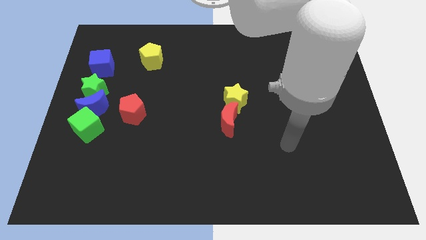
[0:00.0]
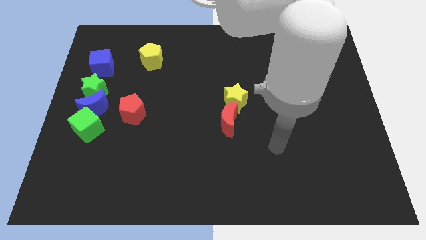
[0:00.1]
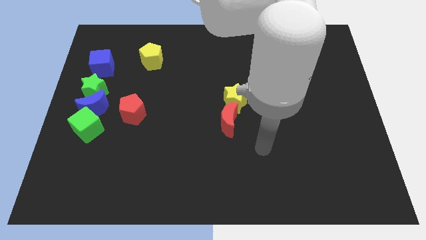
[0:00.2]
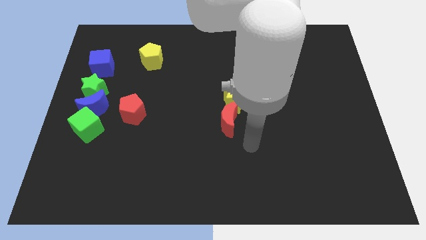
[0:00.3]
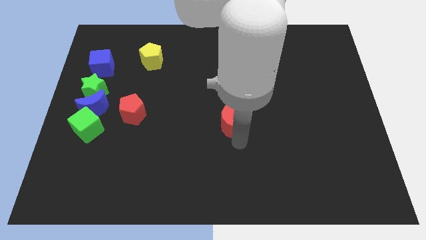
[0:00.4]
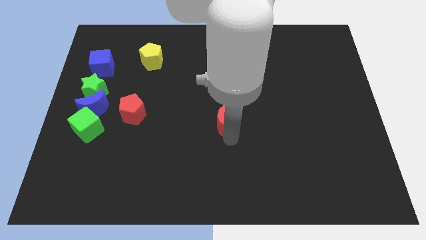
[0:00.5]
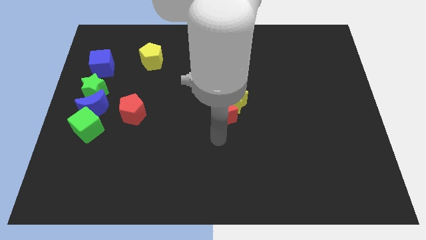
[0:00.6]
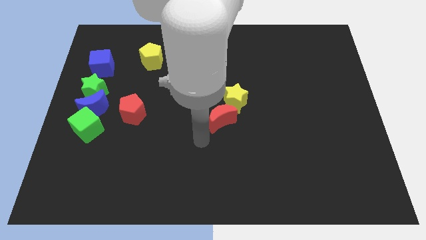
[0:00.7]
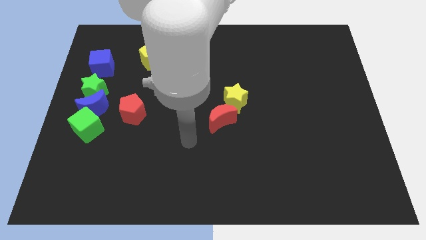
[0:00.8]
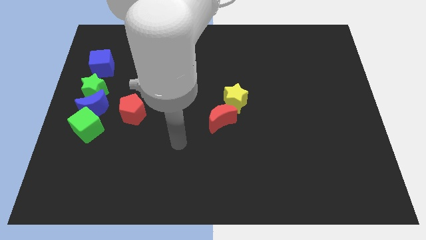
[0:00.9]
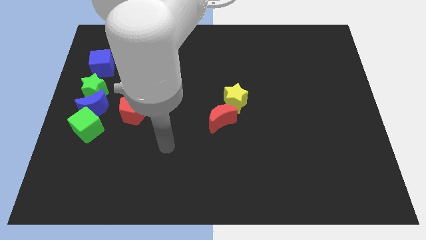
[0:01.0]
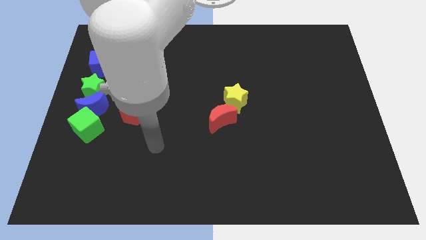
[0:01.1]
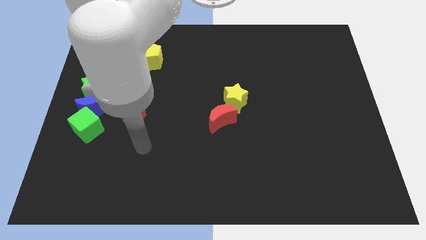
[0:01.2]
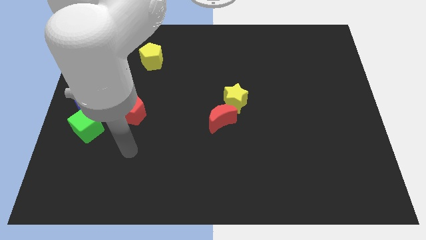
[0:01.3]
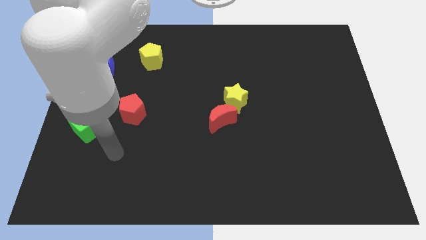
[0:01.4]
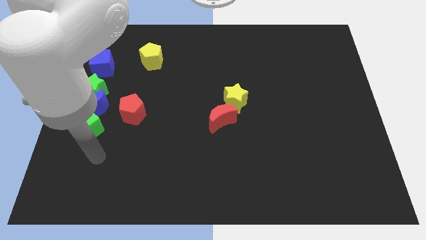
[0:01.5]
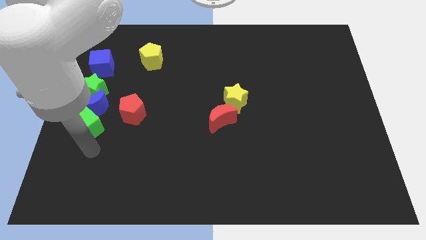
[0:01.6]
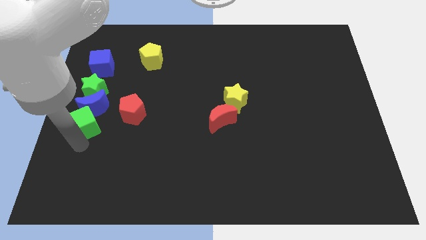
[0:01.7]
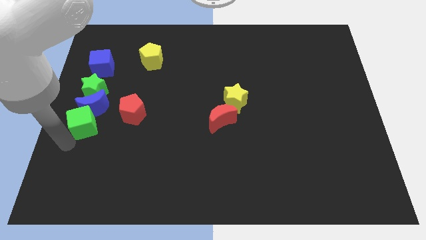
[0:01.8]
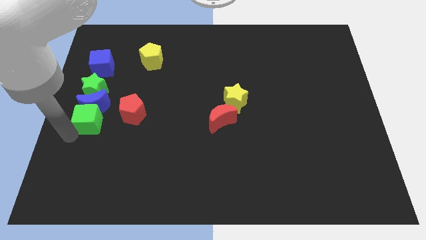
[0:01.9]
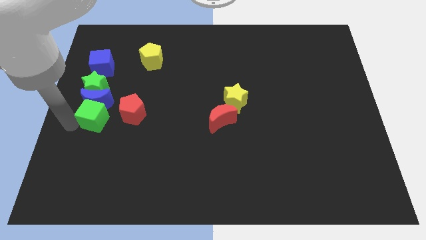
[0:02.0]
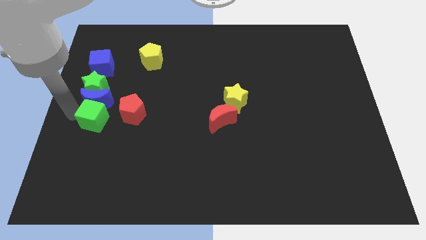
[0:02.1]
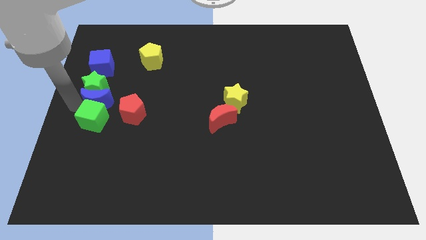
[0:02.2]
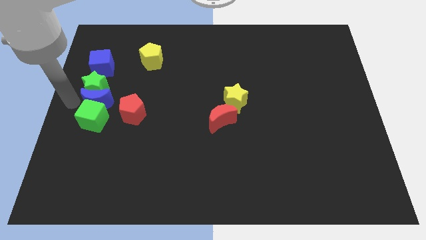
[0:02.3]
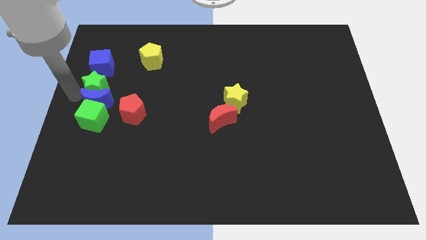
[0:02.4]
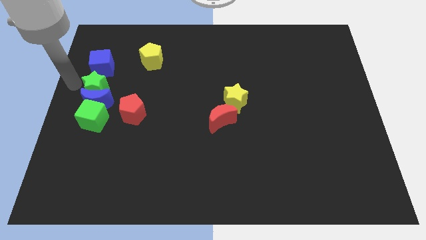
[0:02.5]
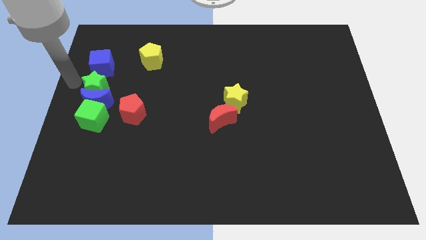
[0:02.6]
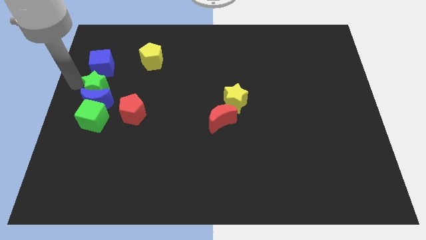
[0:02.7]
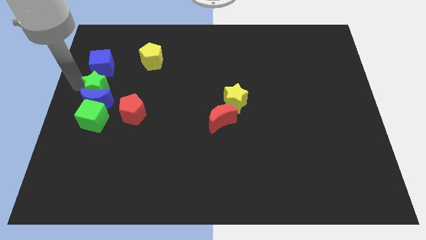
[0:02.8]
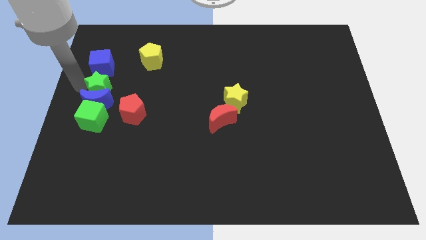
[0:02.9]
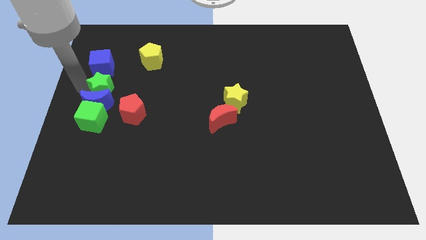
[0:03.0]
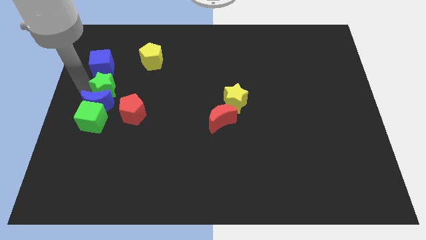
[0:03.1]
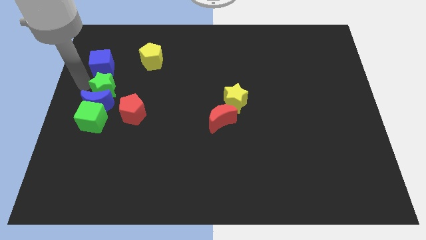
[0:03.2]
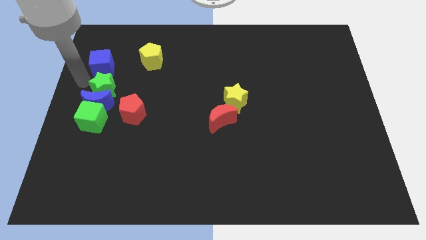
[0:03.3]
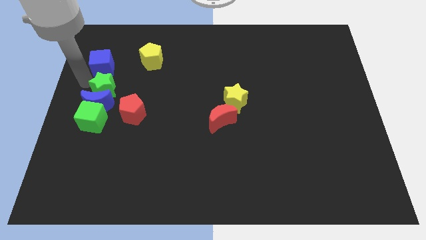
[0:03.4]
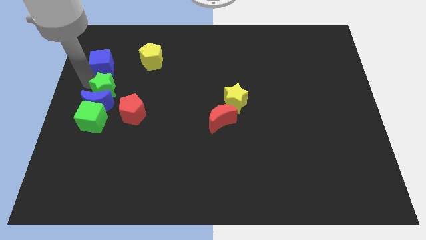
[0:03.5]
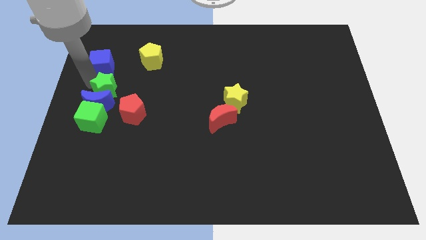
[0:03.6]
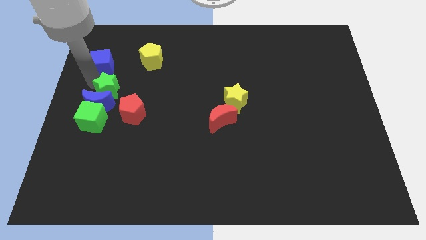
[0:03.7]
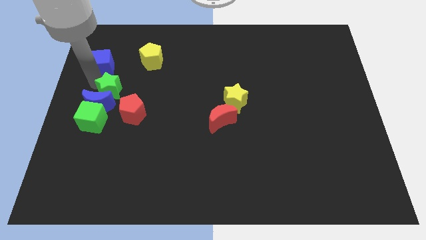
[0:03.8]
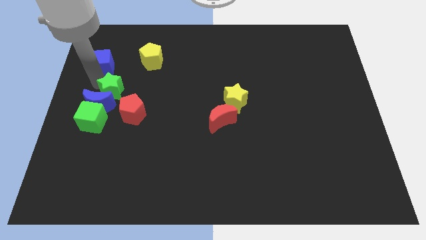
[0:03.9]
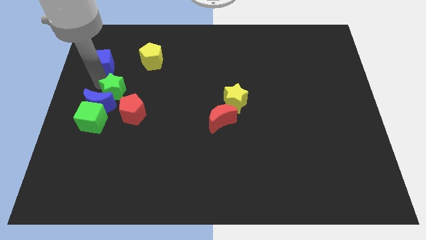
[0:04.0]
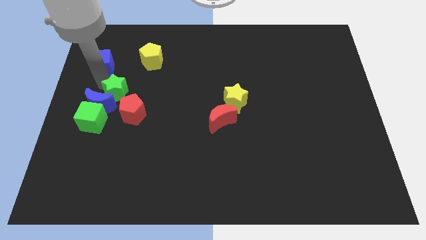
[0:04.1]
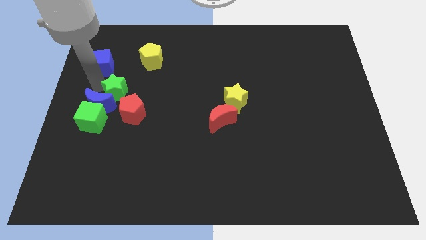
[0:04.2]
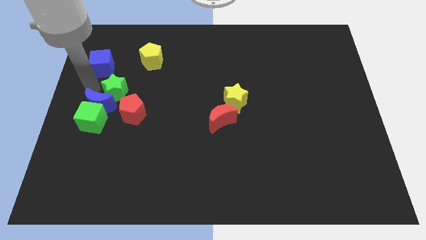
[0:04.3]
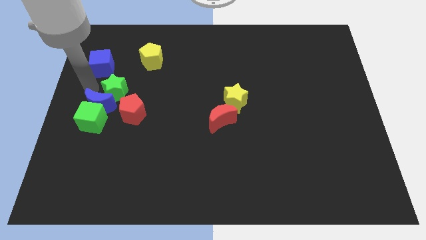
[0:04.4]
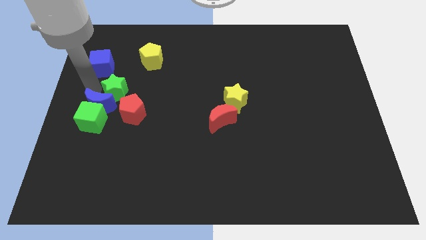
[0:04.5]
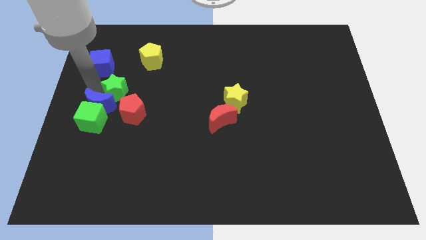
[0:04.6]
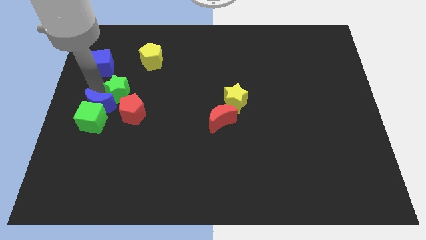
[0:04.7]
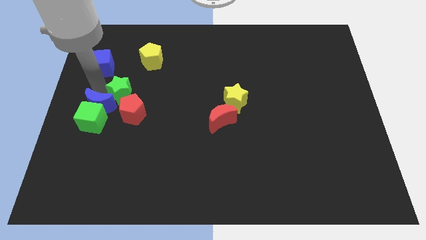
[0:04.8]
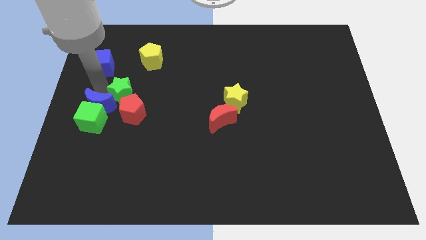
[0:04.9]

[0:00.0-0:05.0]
move the green star a bit to the right

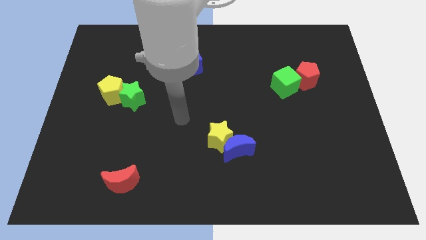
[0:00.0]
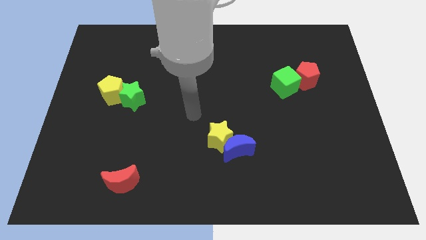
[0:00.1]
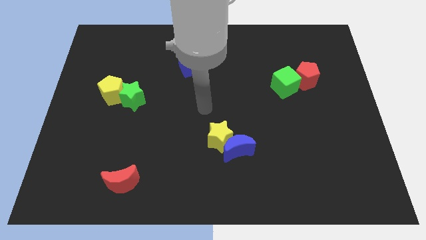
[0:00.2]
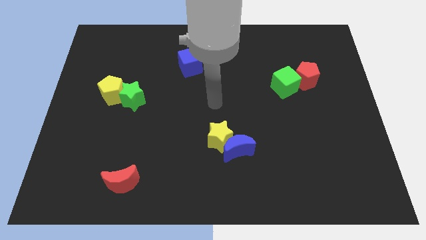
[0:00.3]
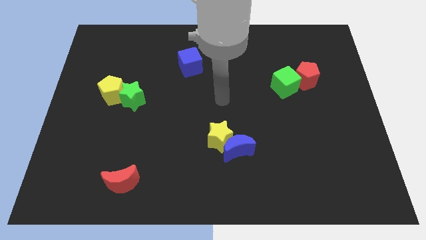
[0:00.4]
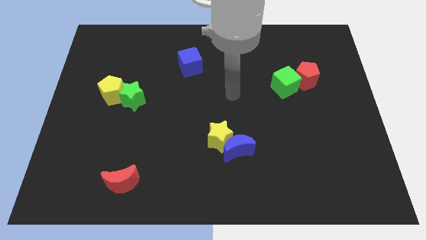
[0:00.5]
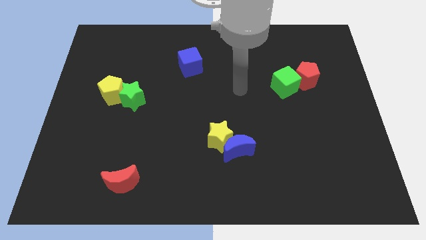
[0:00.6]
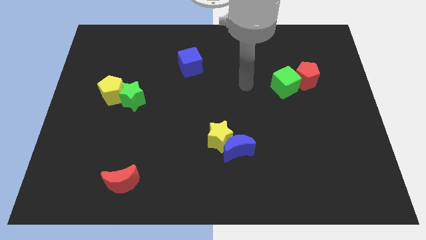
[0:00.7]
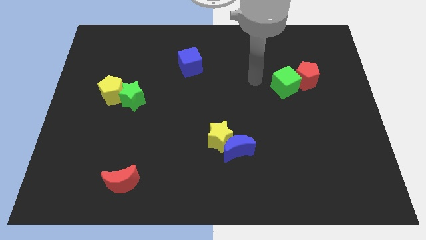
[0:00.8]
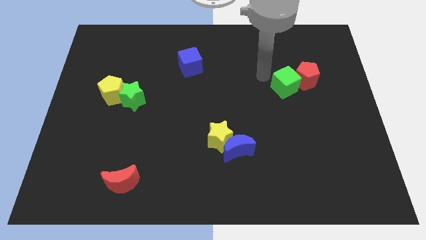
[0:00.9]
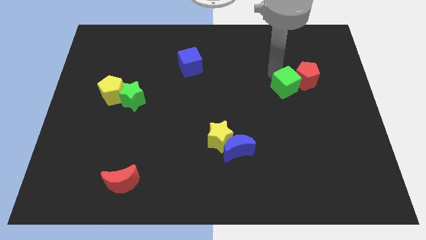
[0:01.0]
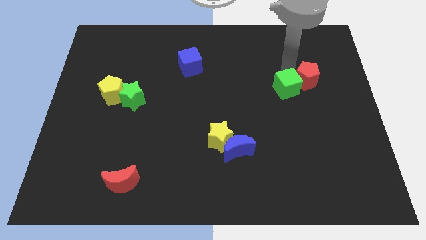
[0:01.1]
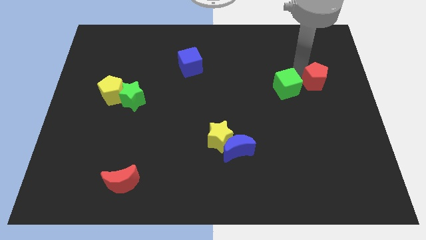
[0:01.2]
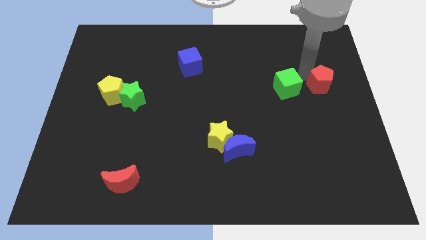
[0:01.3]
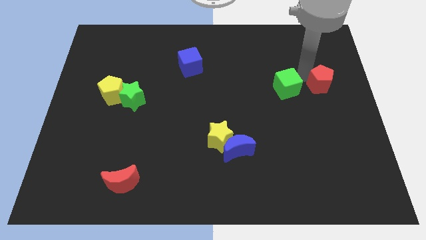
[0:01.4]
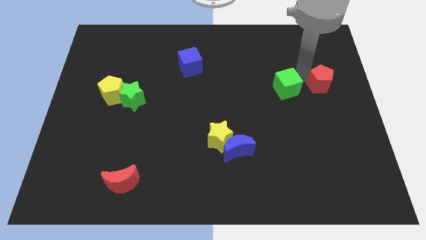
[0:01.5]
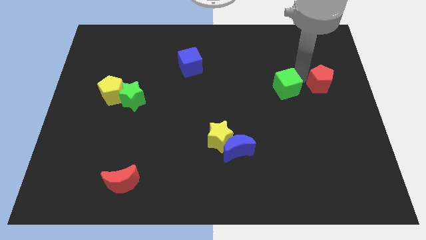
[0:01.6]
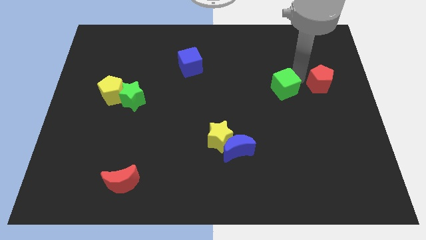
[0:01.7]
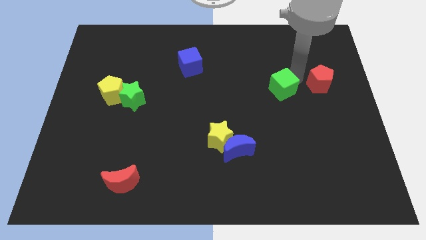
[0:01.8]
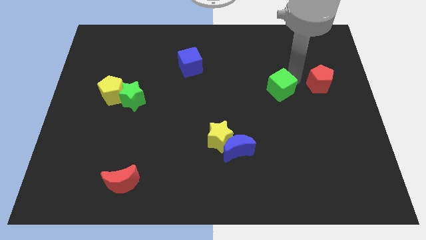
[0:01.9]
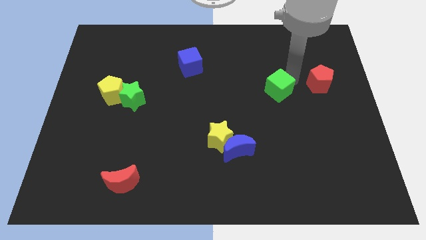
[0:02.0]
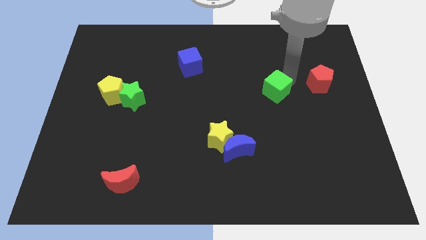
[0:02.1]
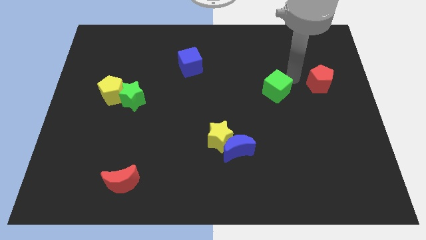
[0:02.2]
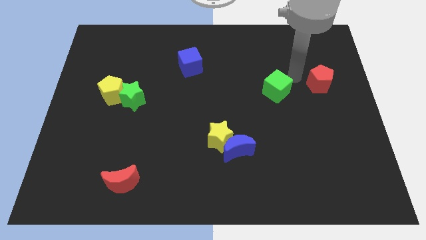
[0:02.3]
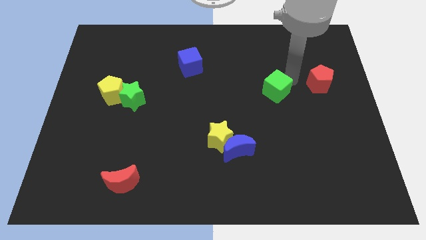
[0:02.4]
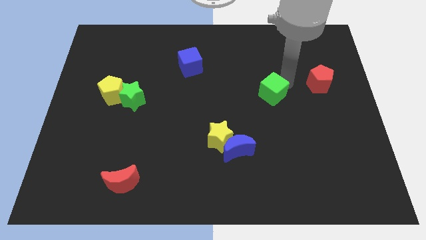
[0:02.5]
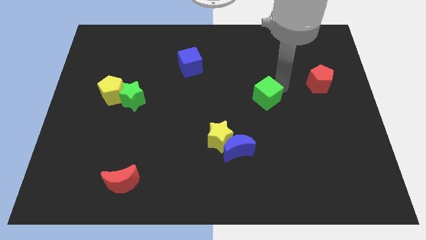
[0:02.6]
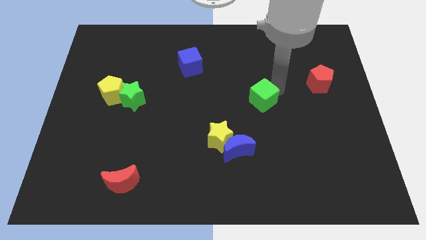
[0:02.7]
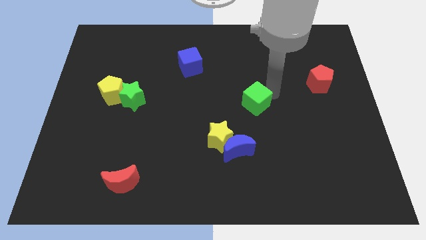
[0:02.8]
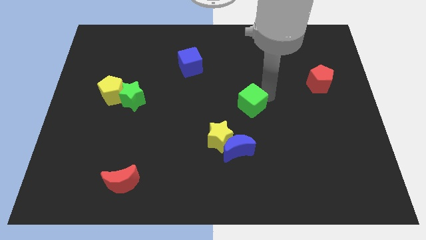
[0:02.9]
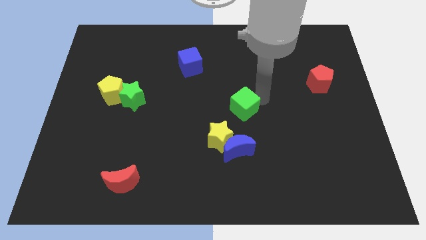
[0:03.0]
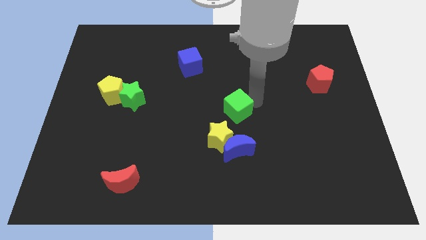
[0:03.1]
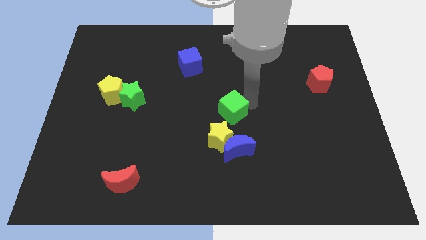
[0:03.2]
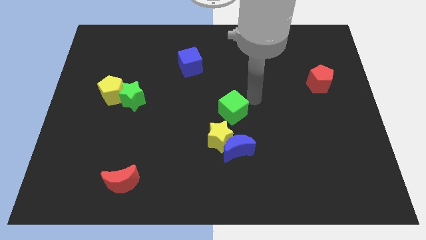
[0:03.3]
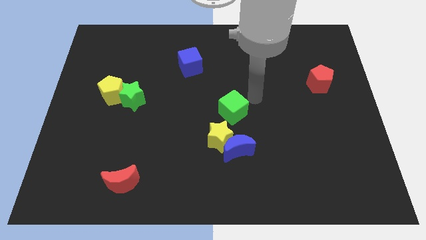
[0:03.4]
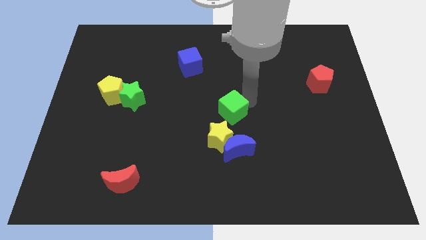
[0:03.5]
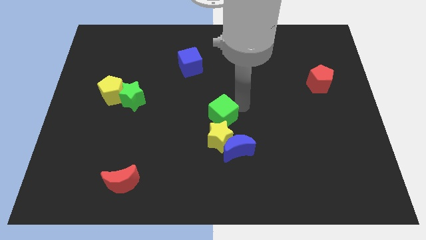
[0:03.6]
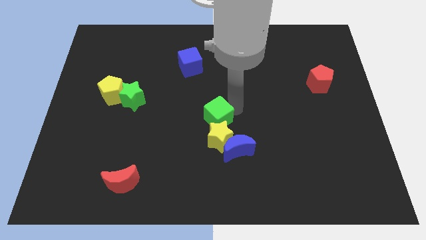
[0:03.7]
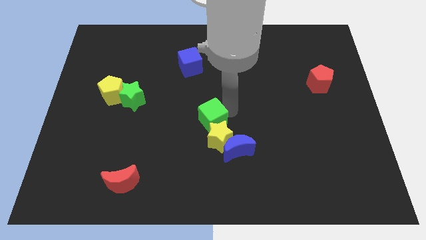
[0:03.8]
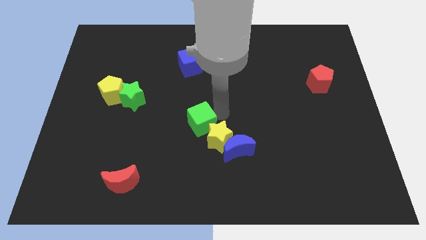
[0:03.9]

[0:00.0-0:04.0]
slide the green cube downwards and to the left
